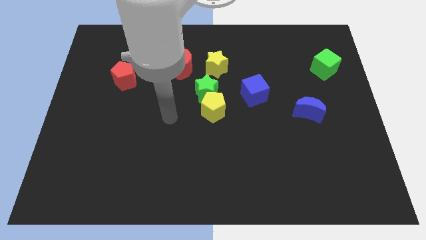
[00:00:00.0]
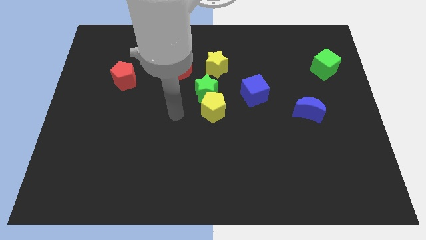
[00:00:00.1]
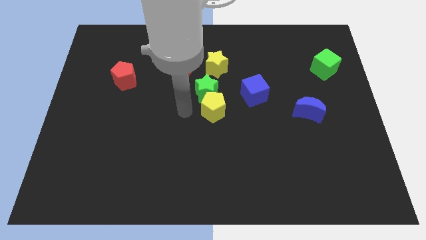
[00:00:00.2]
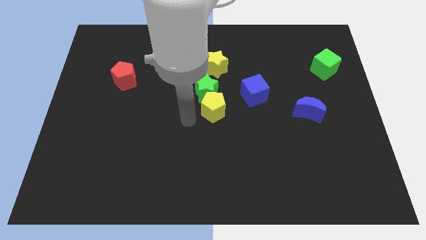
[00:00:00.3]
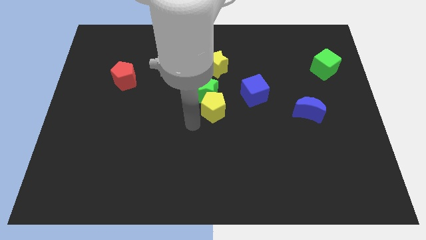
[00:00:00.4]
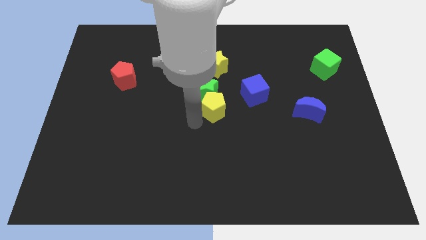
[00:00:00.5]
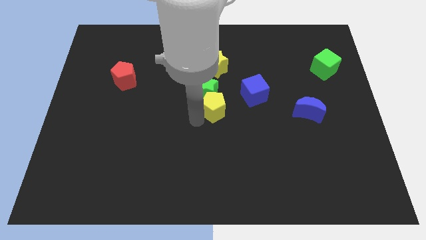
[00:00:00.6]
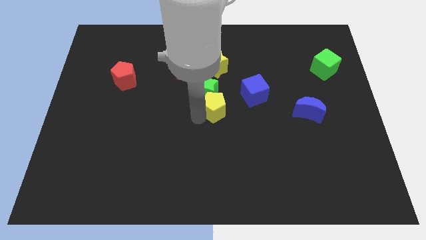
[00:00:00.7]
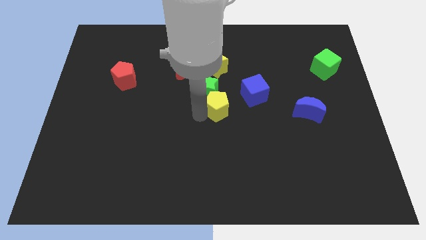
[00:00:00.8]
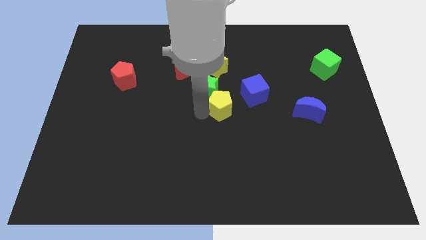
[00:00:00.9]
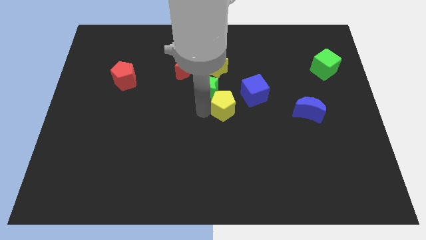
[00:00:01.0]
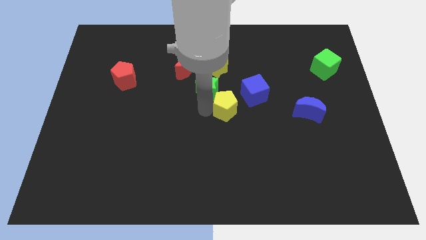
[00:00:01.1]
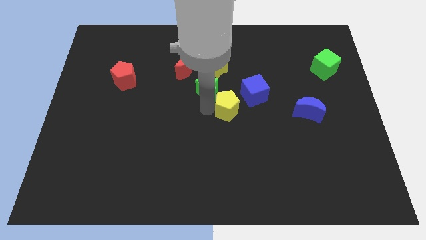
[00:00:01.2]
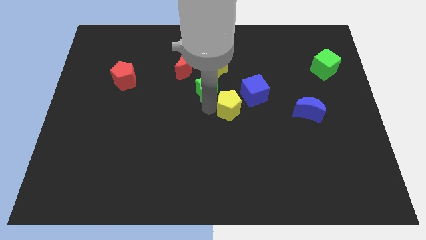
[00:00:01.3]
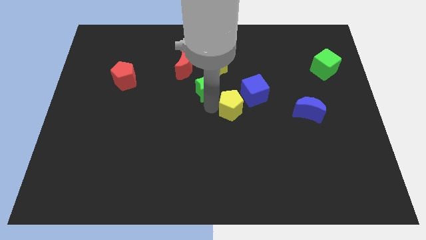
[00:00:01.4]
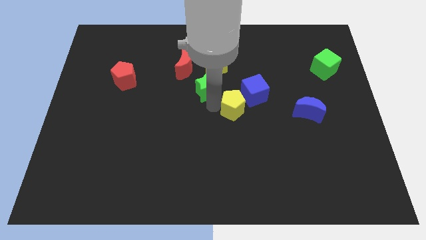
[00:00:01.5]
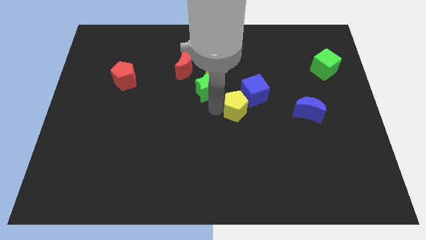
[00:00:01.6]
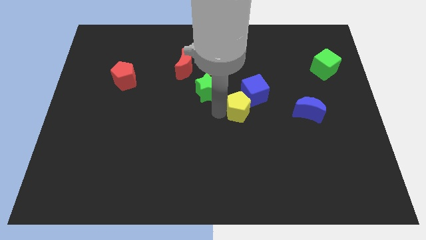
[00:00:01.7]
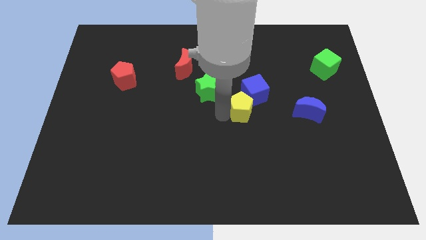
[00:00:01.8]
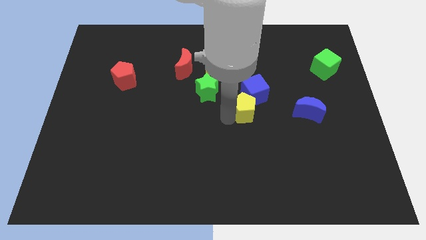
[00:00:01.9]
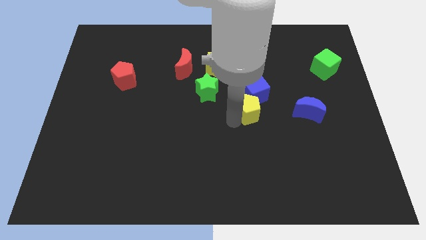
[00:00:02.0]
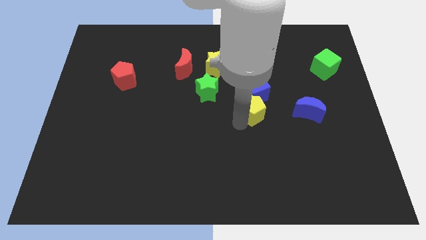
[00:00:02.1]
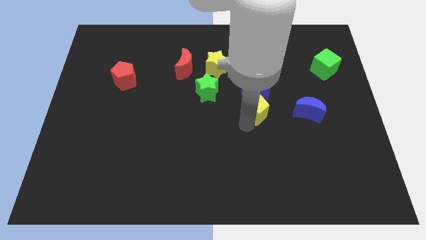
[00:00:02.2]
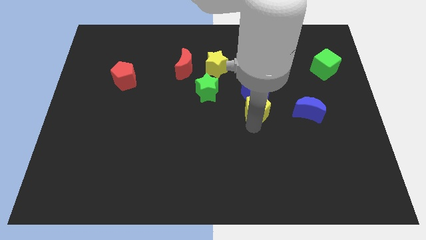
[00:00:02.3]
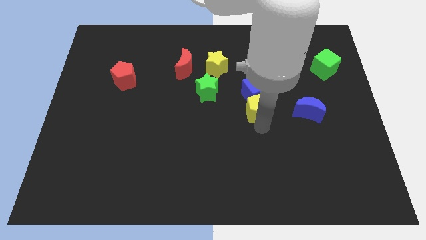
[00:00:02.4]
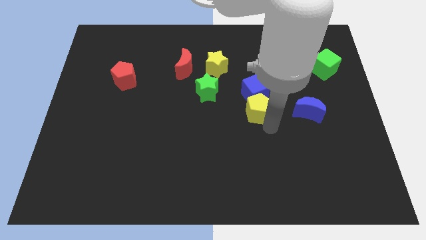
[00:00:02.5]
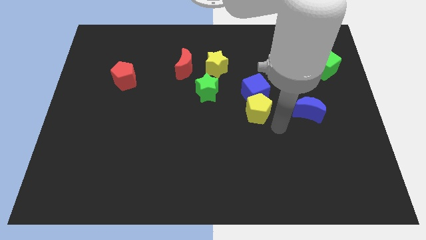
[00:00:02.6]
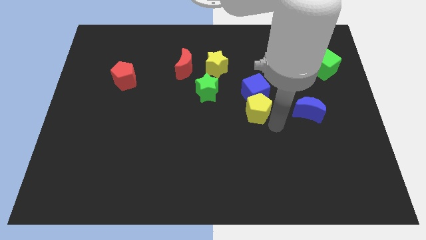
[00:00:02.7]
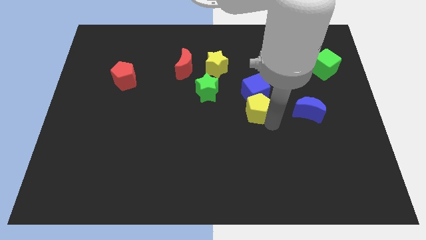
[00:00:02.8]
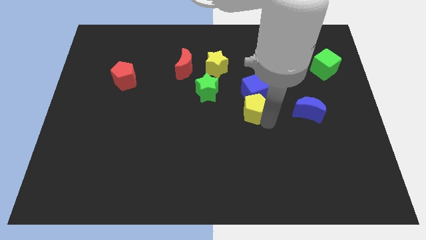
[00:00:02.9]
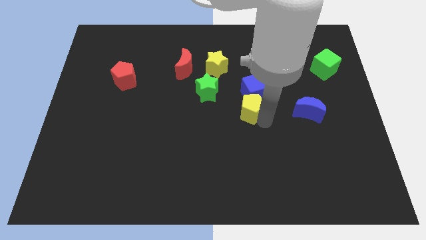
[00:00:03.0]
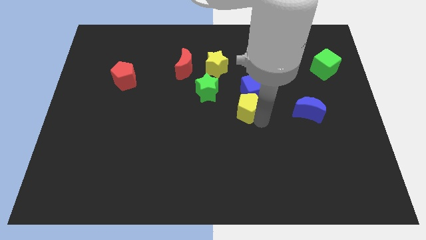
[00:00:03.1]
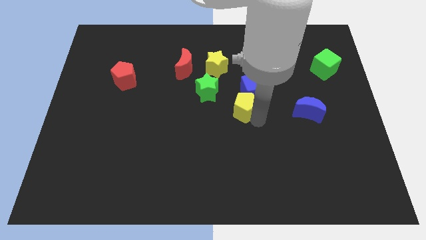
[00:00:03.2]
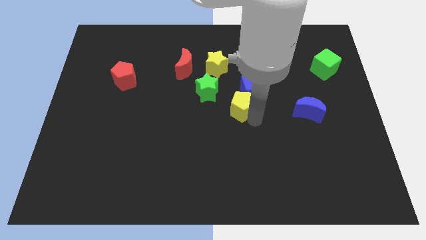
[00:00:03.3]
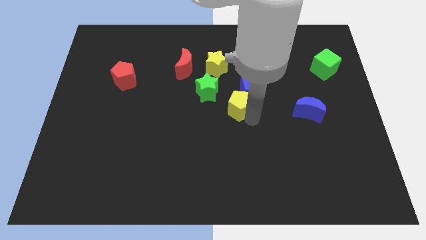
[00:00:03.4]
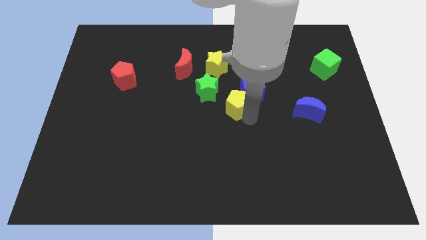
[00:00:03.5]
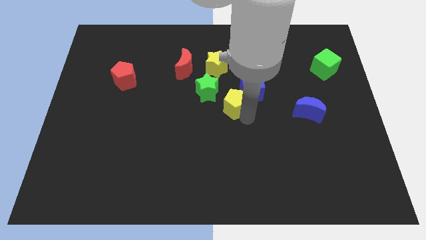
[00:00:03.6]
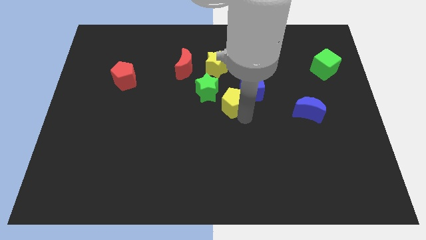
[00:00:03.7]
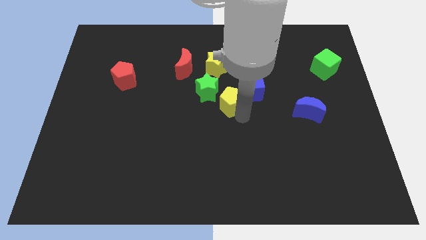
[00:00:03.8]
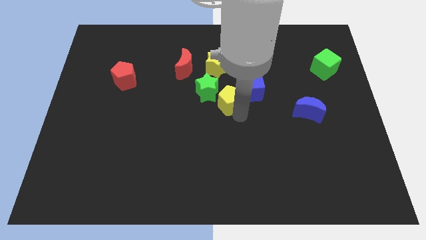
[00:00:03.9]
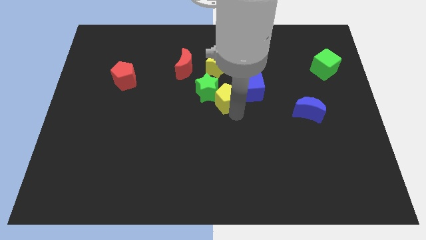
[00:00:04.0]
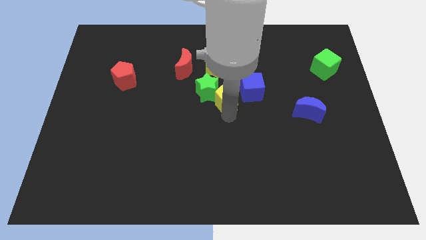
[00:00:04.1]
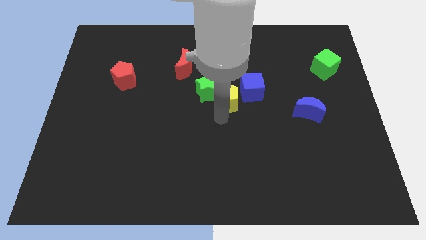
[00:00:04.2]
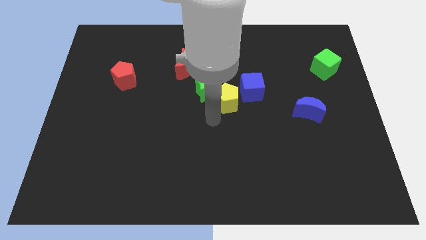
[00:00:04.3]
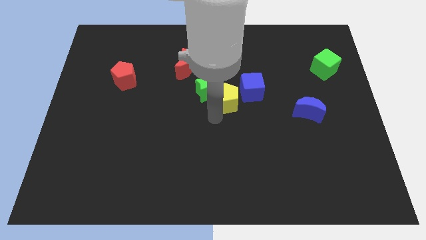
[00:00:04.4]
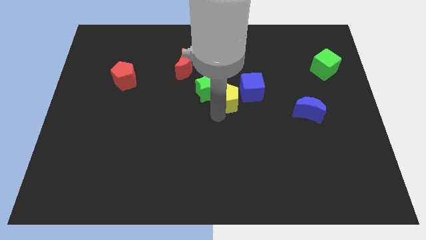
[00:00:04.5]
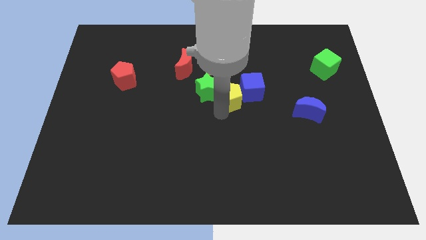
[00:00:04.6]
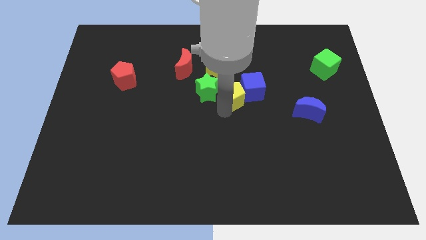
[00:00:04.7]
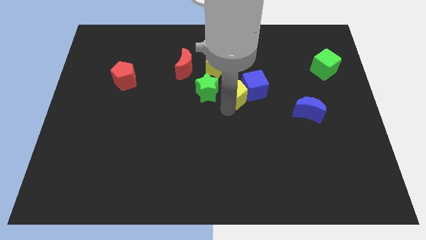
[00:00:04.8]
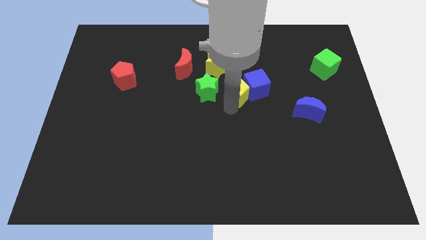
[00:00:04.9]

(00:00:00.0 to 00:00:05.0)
slightly push the yellow pentagon up and to the right diagonally

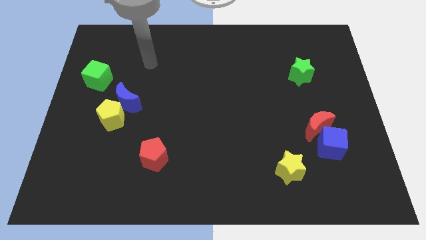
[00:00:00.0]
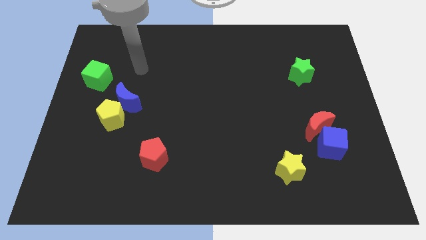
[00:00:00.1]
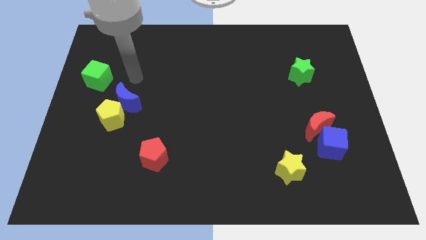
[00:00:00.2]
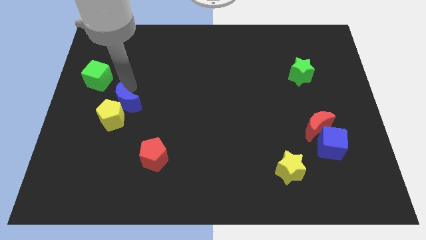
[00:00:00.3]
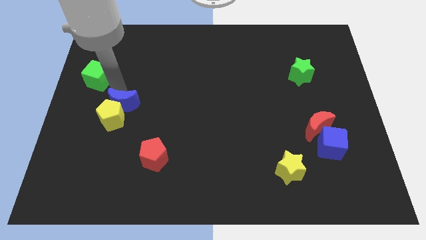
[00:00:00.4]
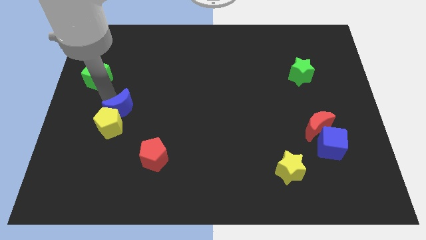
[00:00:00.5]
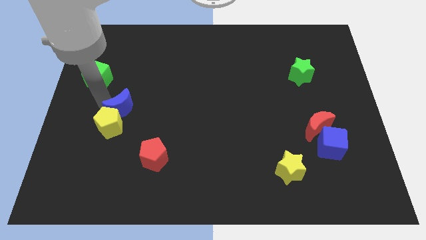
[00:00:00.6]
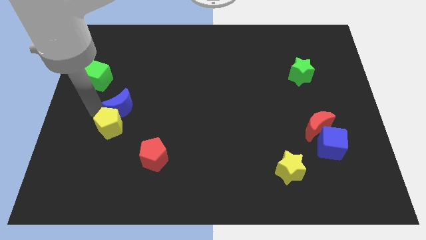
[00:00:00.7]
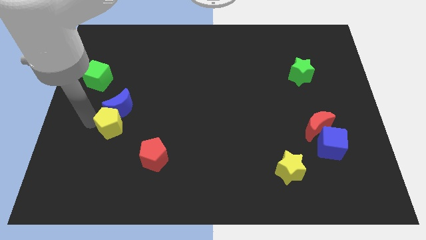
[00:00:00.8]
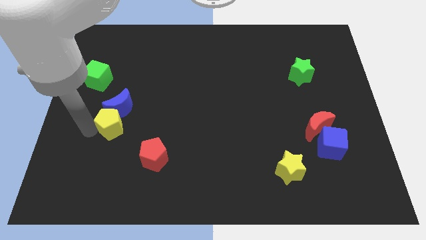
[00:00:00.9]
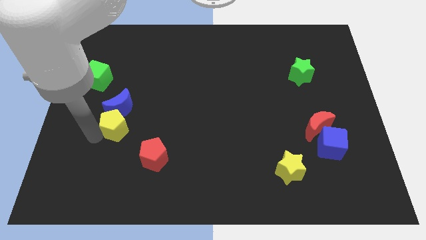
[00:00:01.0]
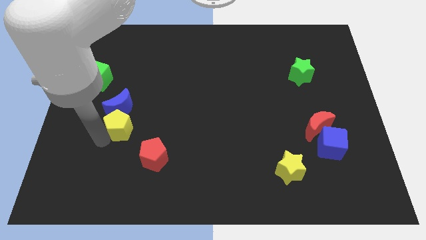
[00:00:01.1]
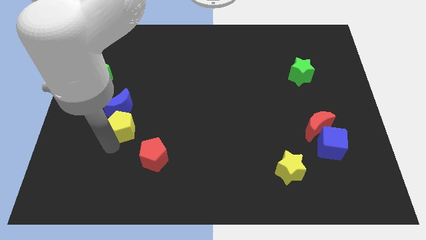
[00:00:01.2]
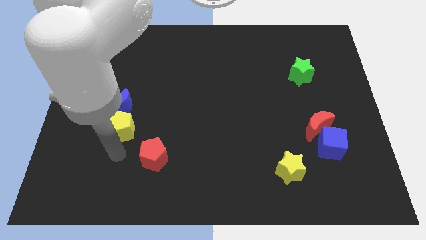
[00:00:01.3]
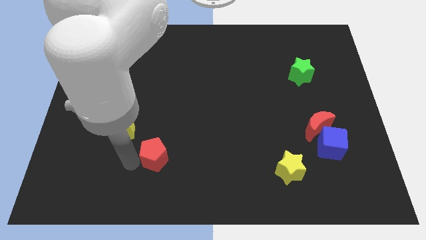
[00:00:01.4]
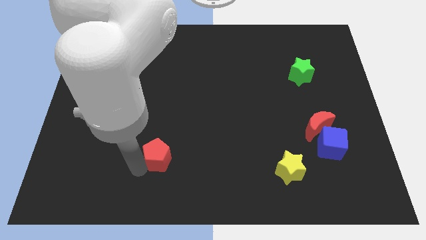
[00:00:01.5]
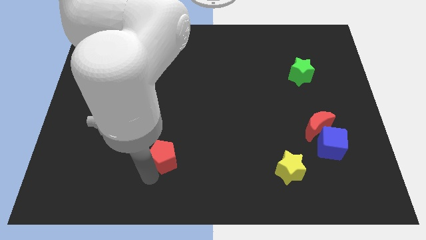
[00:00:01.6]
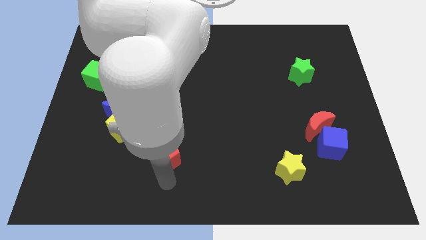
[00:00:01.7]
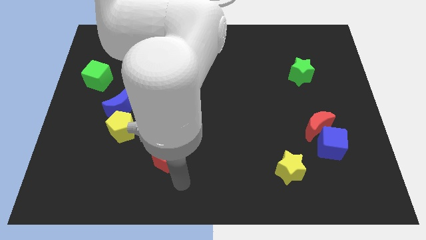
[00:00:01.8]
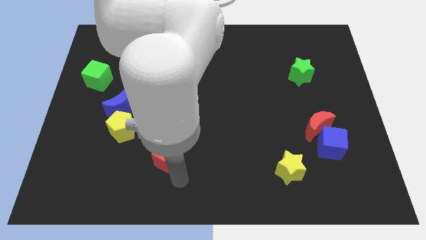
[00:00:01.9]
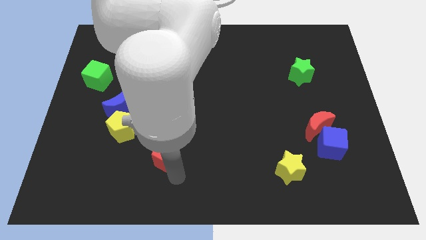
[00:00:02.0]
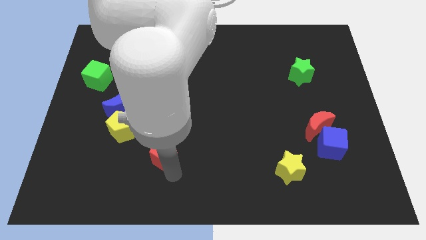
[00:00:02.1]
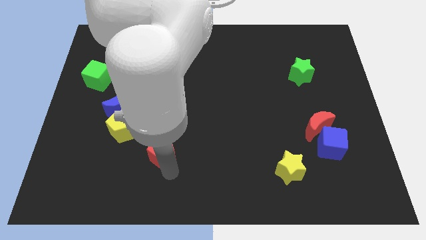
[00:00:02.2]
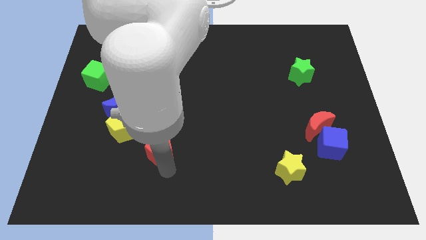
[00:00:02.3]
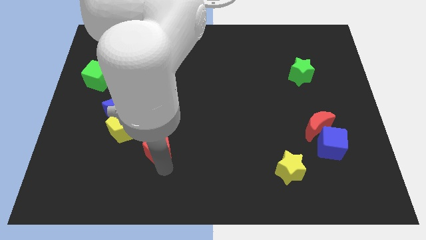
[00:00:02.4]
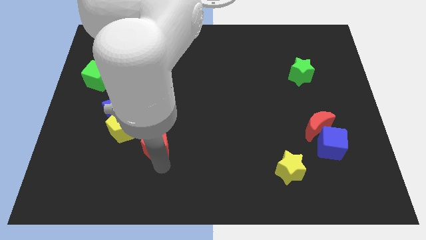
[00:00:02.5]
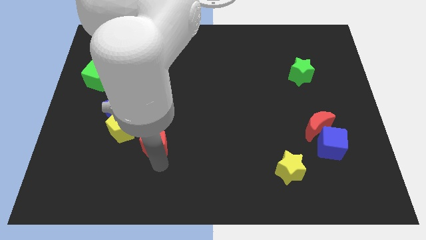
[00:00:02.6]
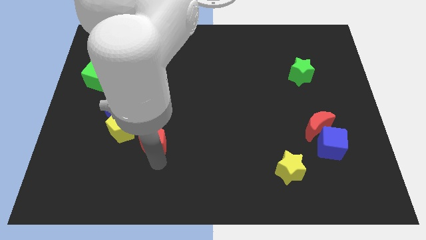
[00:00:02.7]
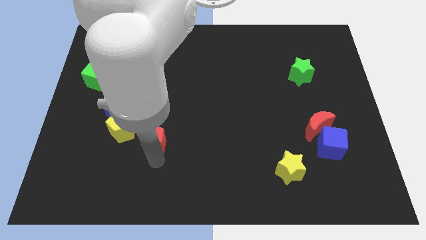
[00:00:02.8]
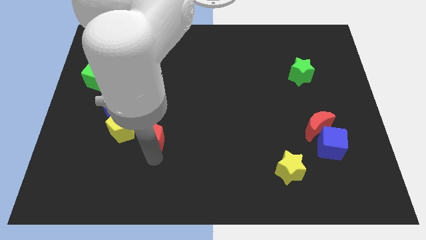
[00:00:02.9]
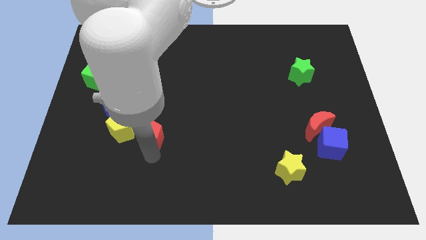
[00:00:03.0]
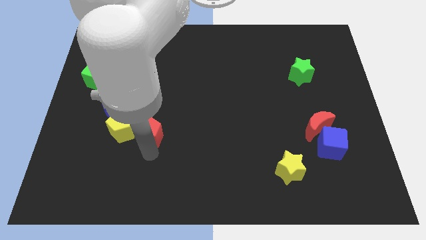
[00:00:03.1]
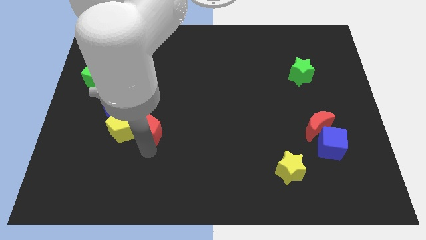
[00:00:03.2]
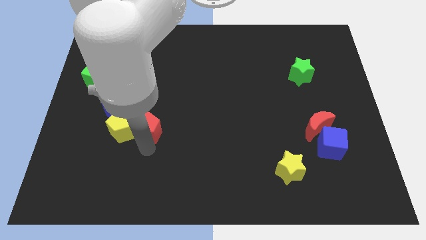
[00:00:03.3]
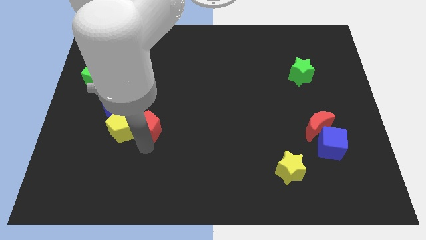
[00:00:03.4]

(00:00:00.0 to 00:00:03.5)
push the red pentagon up a little
